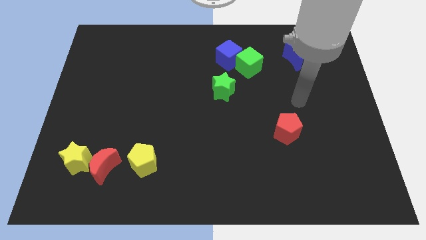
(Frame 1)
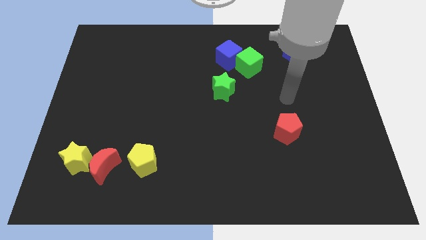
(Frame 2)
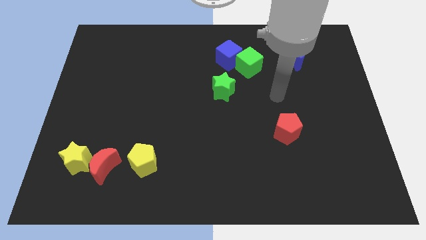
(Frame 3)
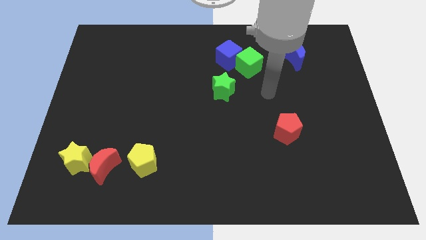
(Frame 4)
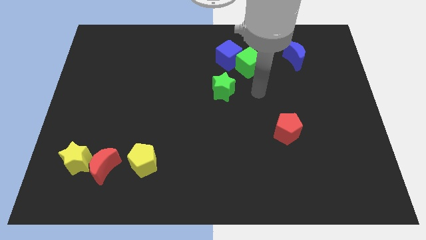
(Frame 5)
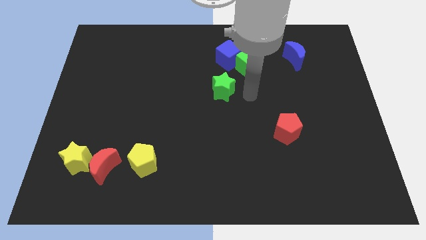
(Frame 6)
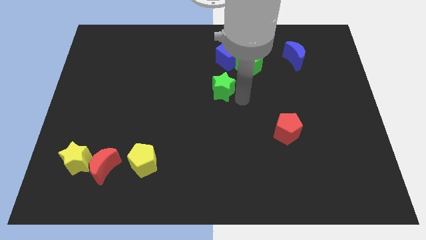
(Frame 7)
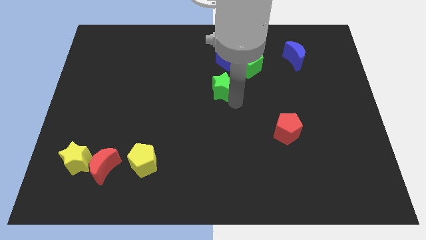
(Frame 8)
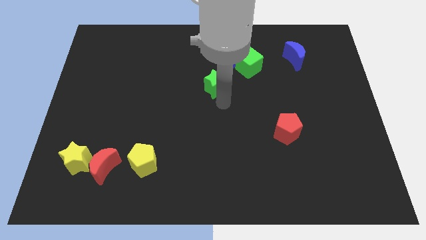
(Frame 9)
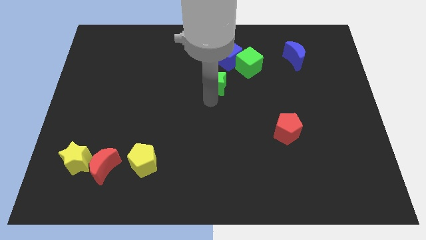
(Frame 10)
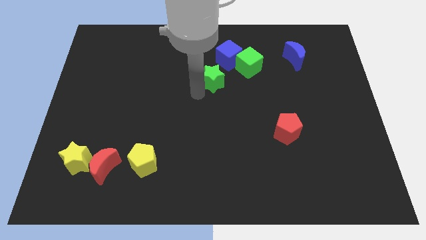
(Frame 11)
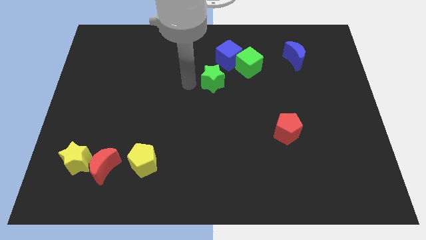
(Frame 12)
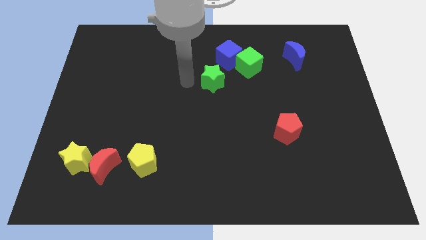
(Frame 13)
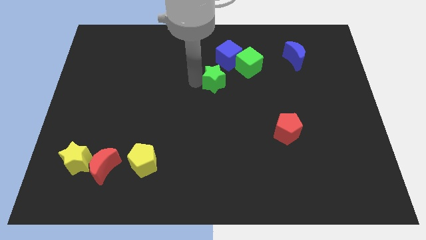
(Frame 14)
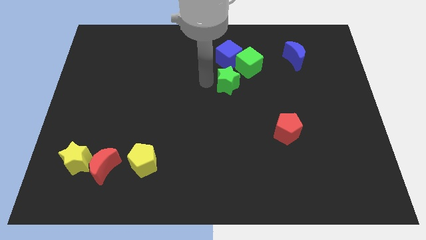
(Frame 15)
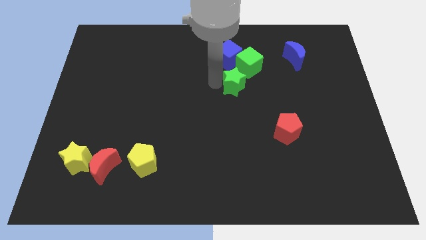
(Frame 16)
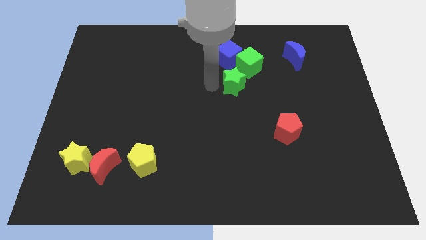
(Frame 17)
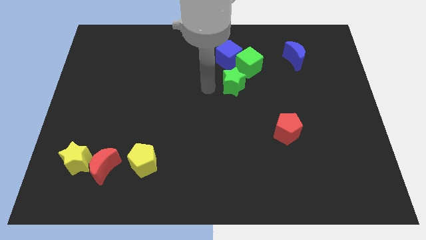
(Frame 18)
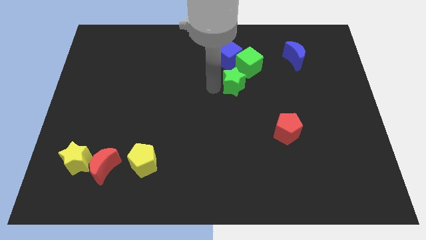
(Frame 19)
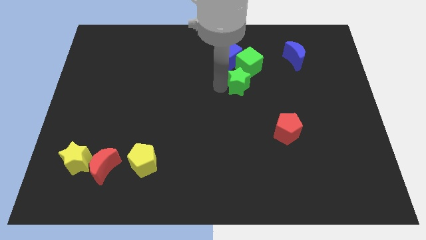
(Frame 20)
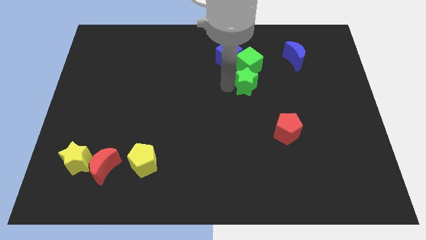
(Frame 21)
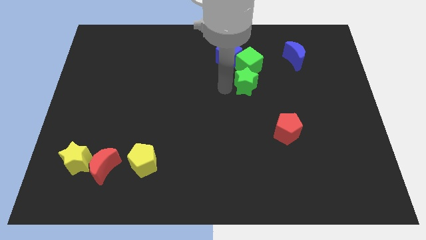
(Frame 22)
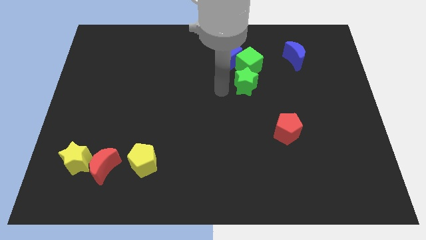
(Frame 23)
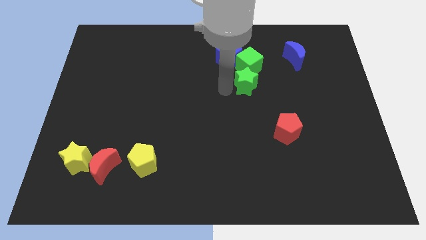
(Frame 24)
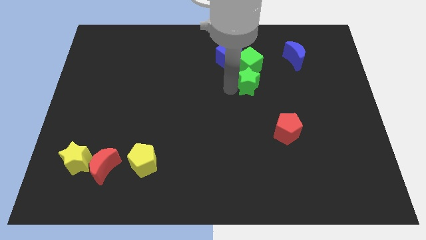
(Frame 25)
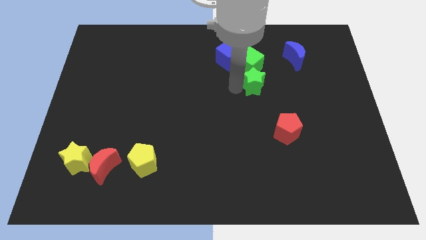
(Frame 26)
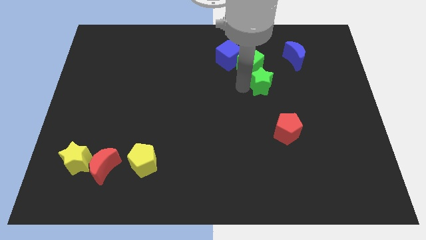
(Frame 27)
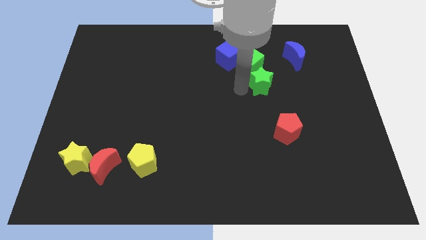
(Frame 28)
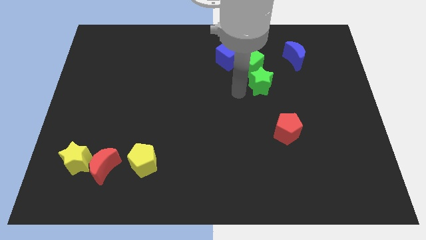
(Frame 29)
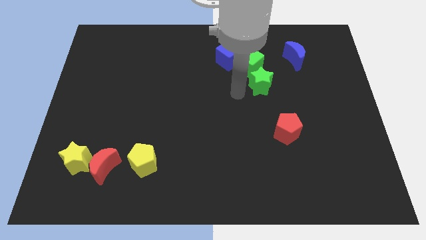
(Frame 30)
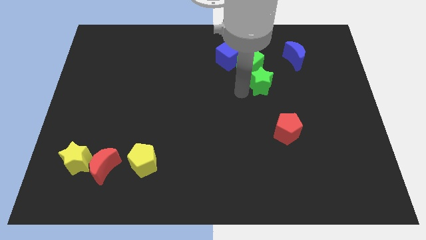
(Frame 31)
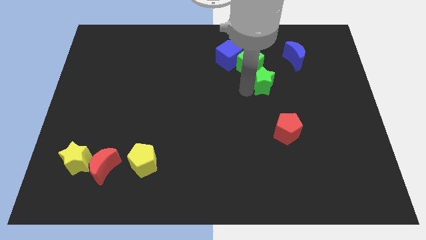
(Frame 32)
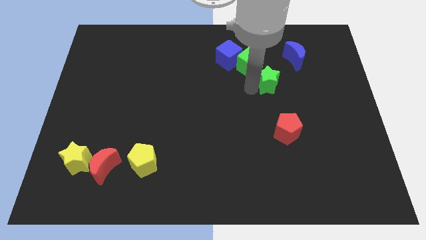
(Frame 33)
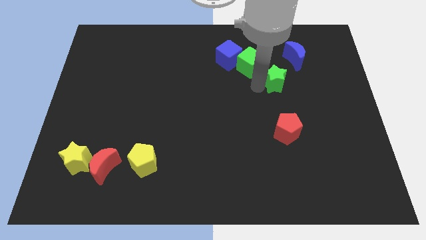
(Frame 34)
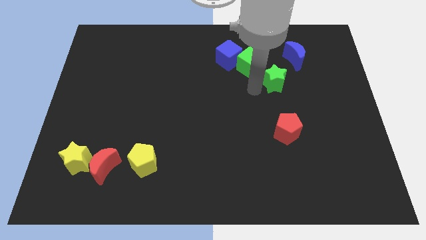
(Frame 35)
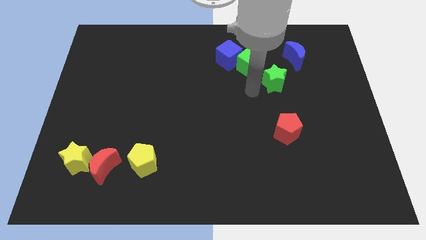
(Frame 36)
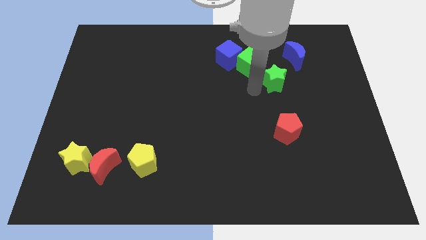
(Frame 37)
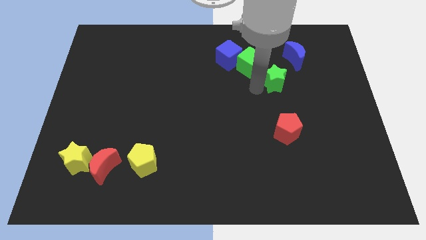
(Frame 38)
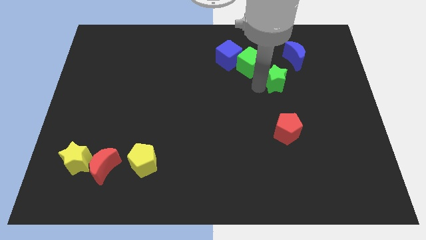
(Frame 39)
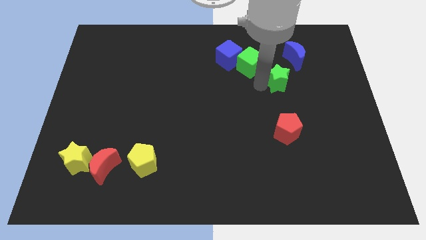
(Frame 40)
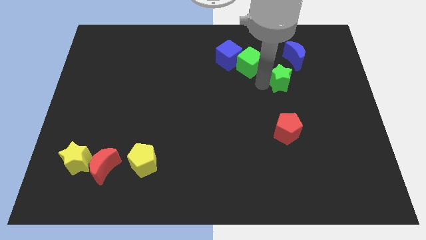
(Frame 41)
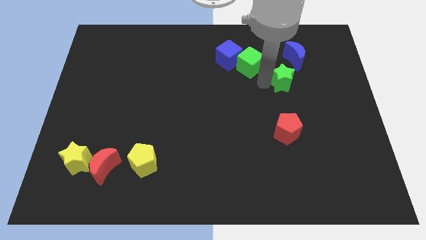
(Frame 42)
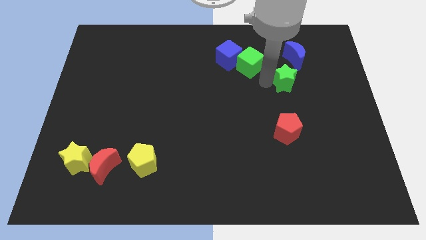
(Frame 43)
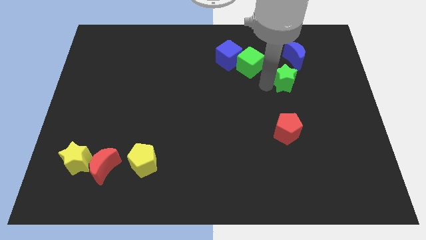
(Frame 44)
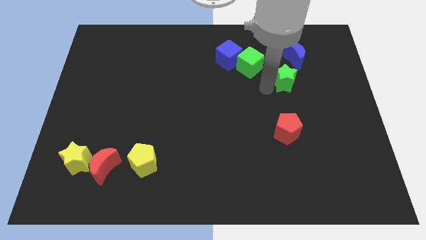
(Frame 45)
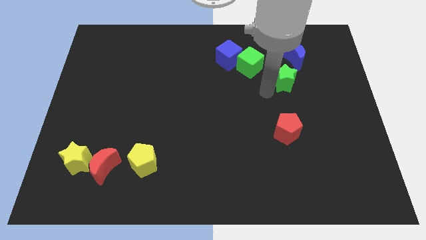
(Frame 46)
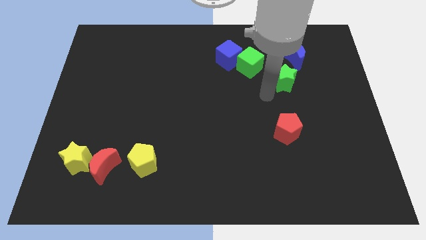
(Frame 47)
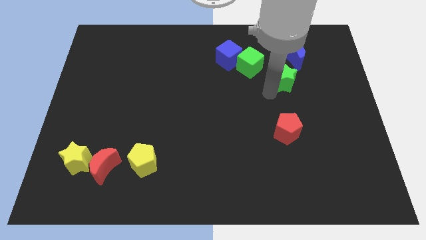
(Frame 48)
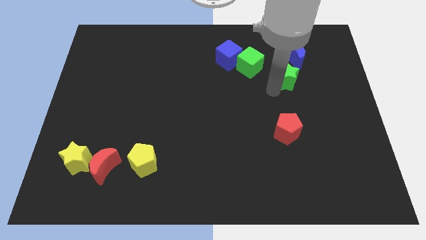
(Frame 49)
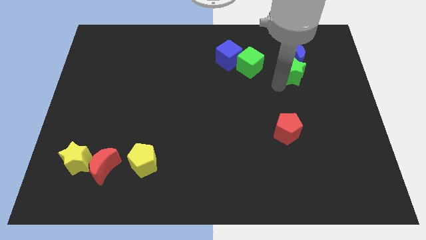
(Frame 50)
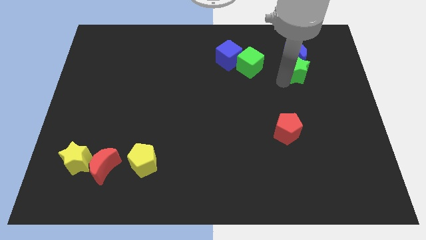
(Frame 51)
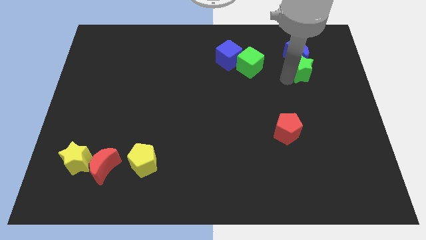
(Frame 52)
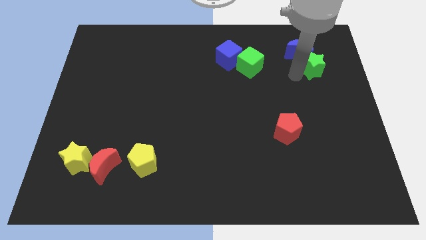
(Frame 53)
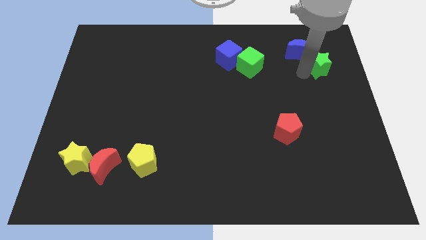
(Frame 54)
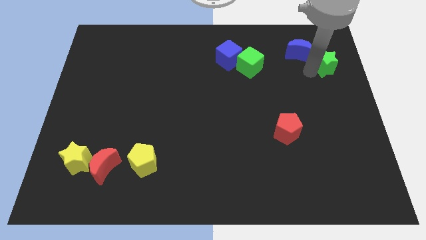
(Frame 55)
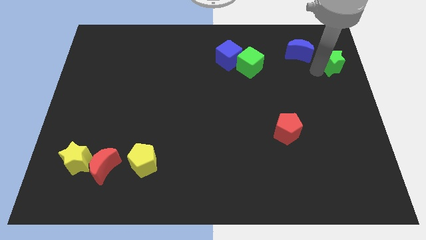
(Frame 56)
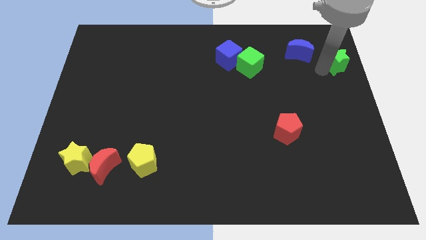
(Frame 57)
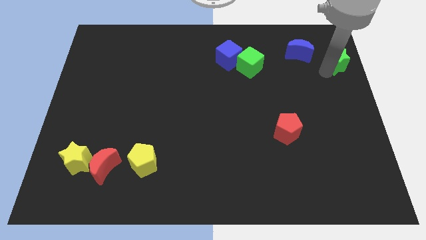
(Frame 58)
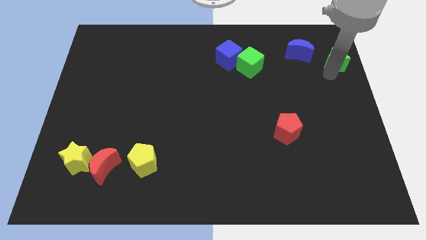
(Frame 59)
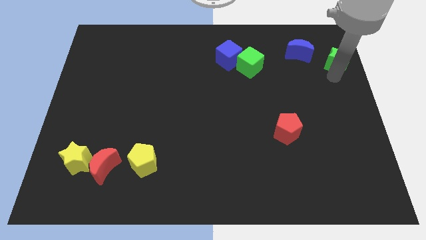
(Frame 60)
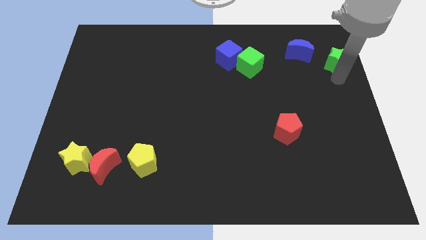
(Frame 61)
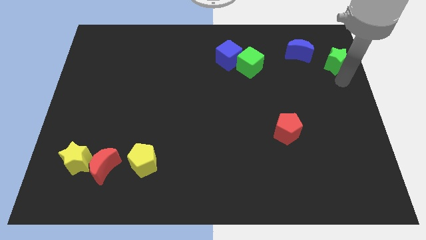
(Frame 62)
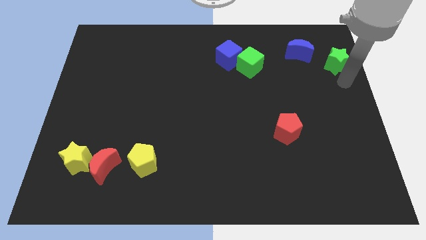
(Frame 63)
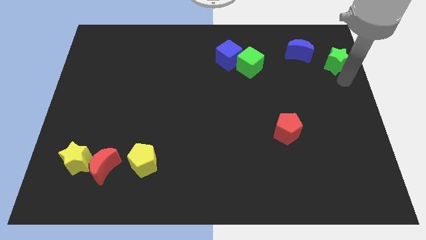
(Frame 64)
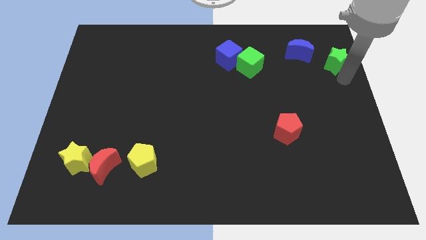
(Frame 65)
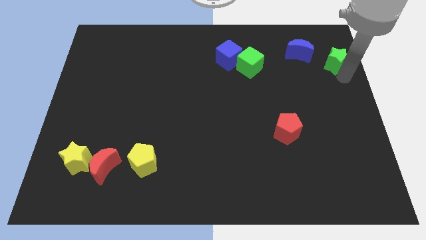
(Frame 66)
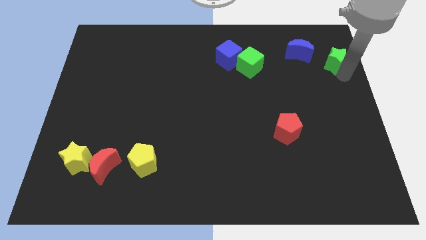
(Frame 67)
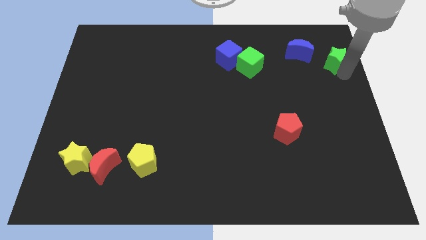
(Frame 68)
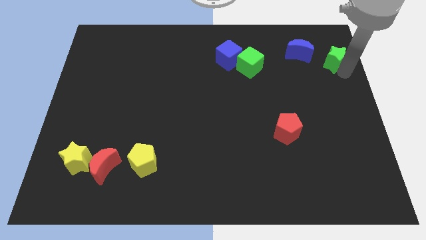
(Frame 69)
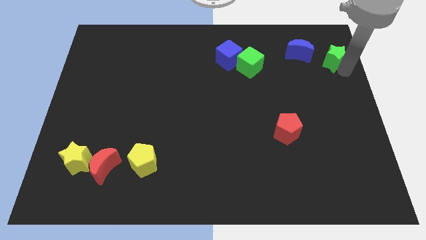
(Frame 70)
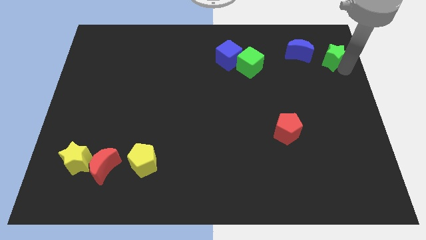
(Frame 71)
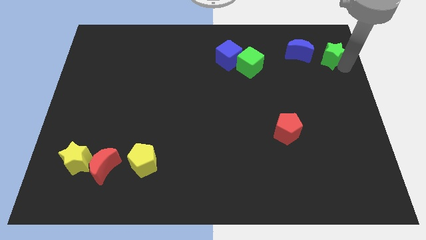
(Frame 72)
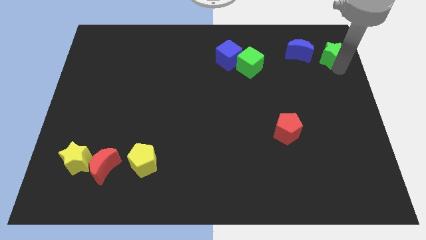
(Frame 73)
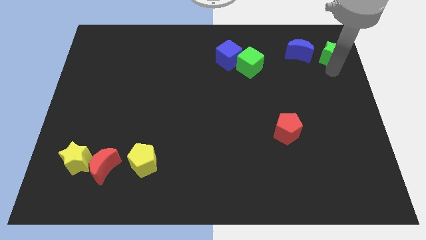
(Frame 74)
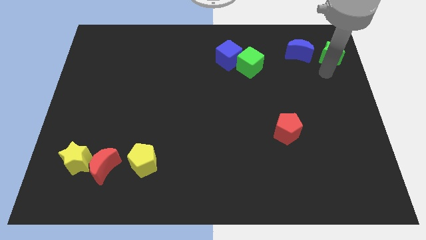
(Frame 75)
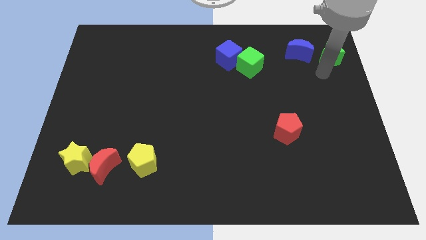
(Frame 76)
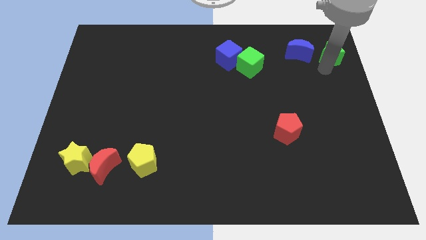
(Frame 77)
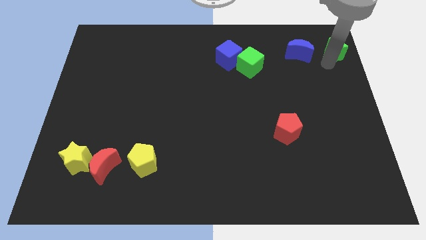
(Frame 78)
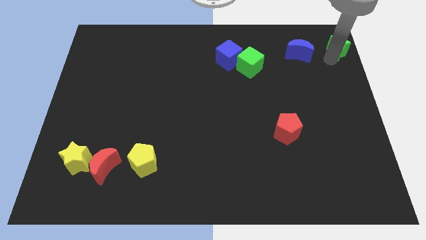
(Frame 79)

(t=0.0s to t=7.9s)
put the green star to the top right
